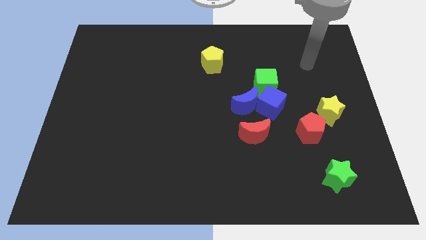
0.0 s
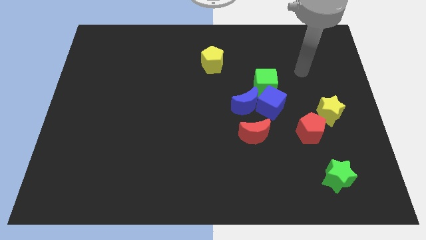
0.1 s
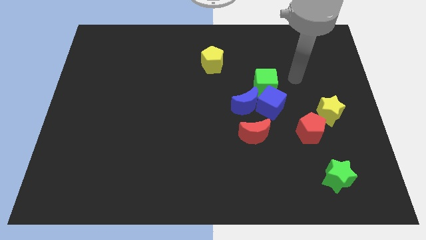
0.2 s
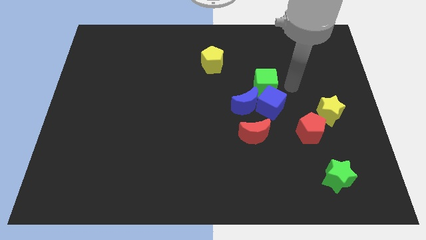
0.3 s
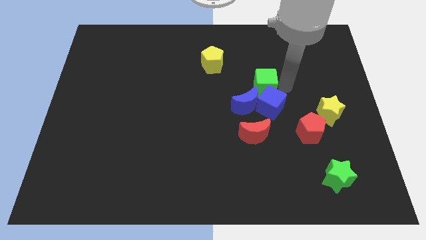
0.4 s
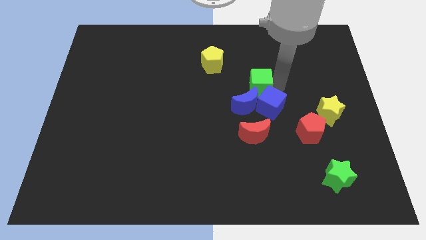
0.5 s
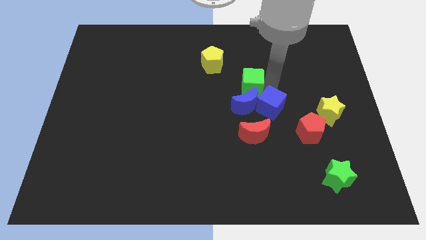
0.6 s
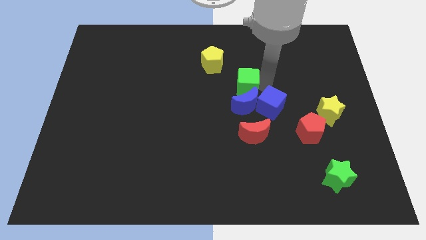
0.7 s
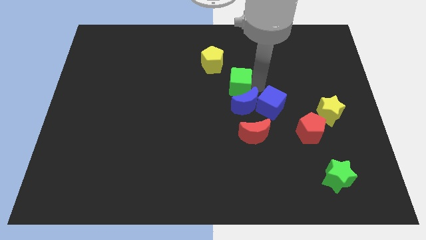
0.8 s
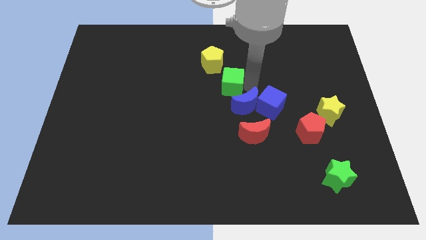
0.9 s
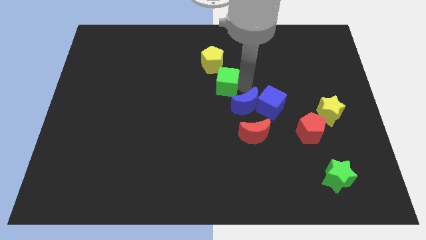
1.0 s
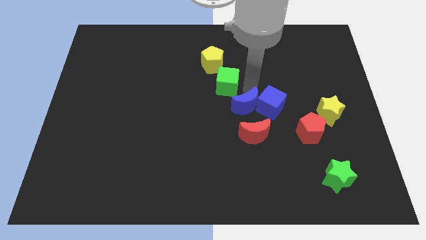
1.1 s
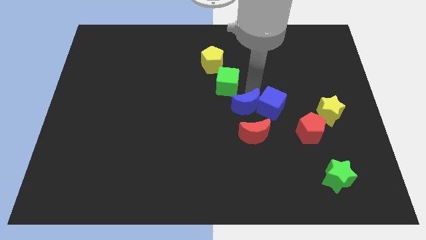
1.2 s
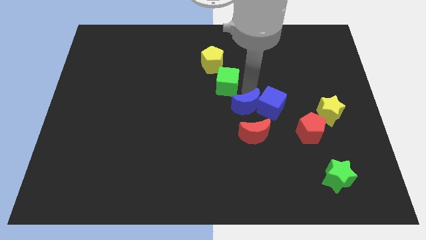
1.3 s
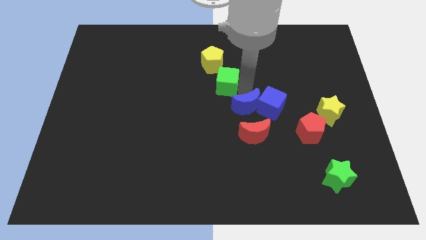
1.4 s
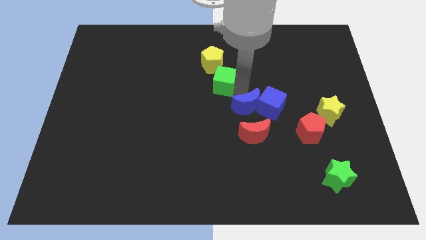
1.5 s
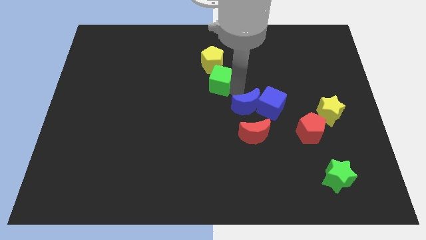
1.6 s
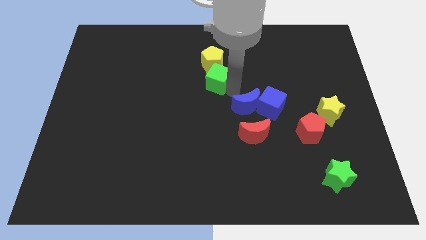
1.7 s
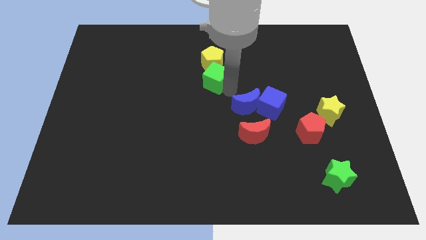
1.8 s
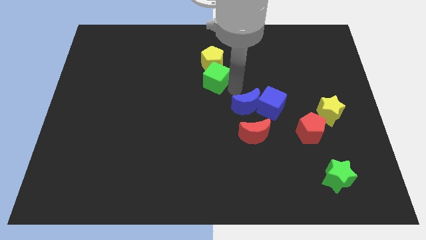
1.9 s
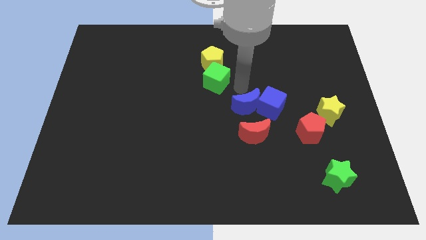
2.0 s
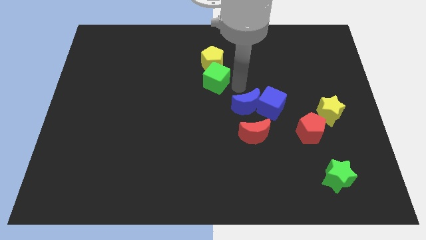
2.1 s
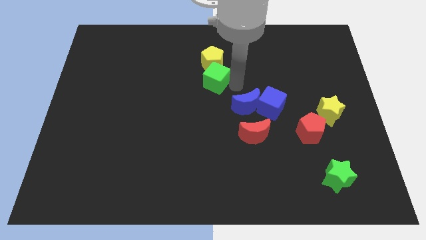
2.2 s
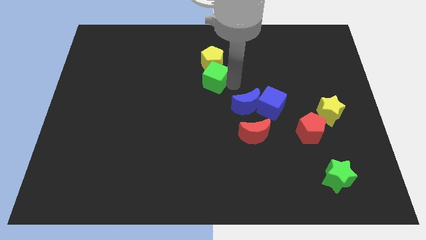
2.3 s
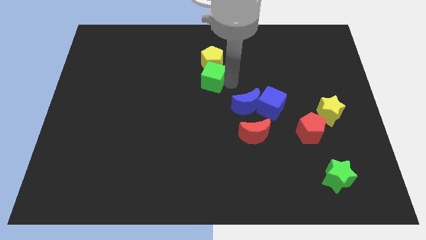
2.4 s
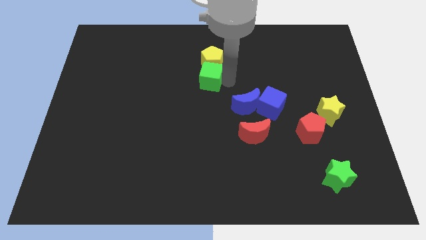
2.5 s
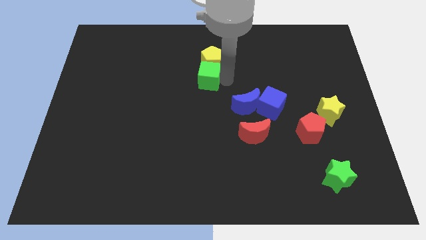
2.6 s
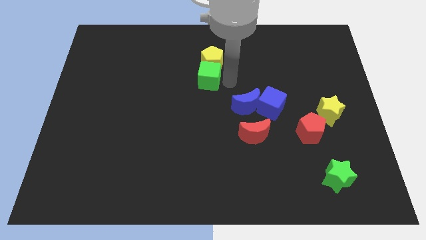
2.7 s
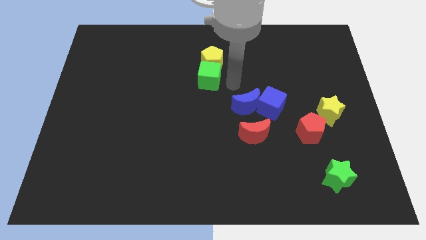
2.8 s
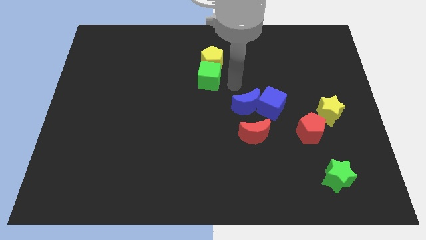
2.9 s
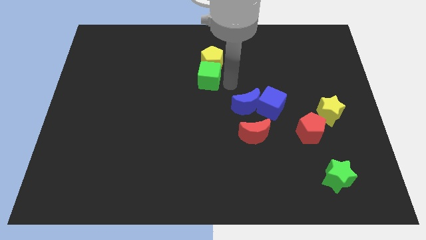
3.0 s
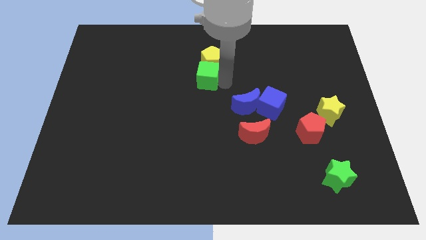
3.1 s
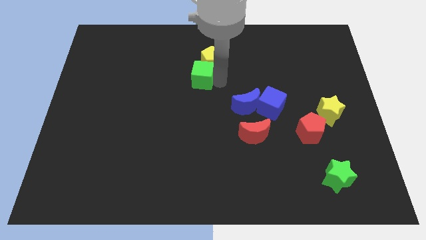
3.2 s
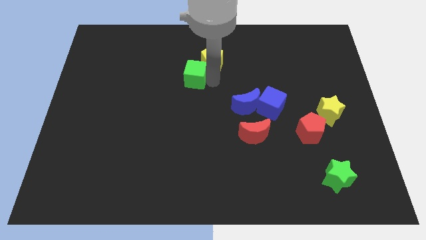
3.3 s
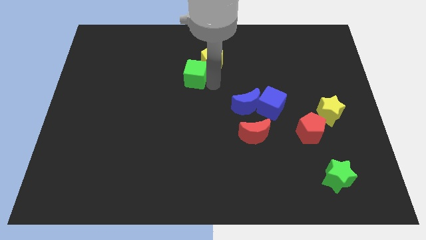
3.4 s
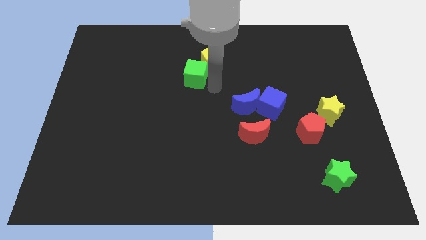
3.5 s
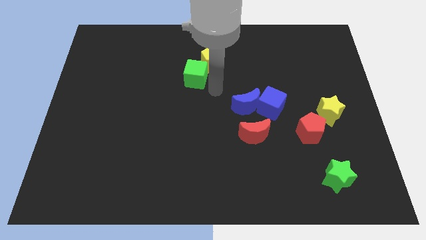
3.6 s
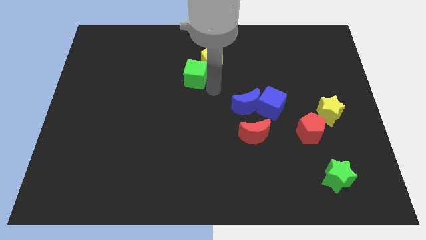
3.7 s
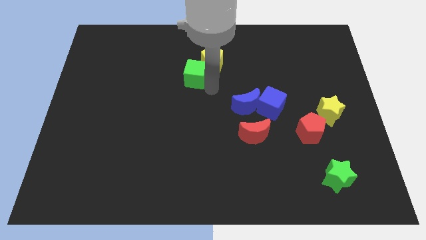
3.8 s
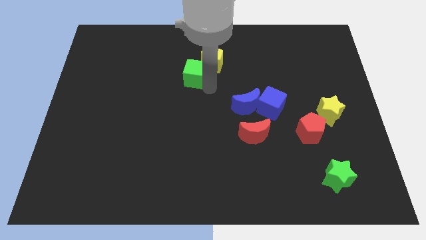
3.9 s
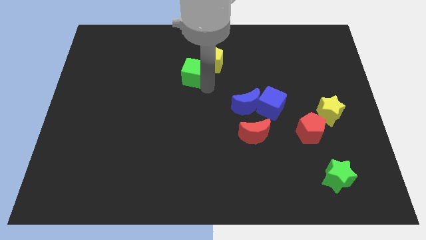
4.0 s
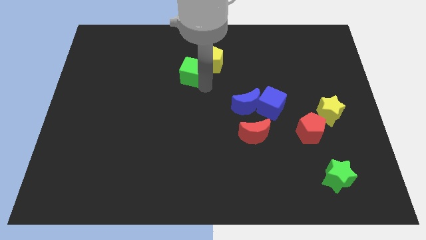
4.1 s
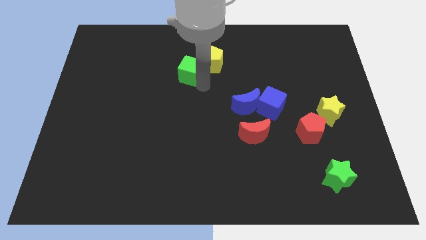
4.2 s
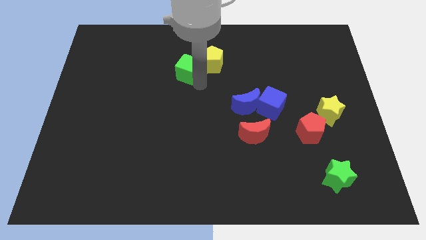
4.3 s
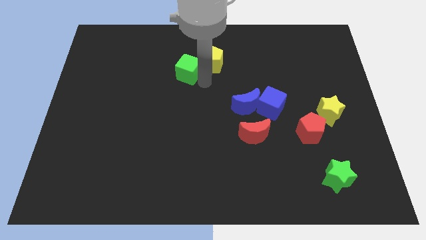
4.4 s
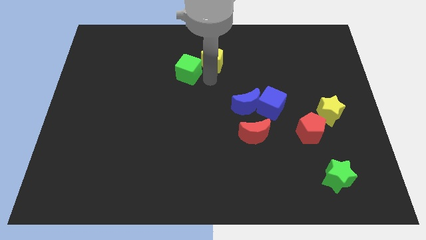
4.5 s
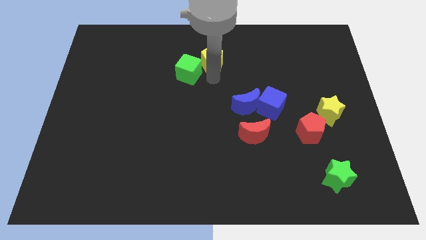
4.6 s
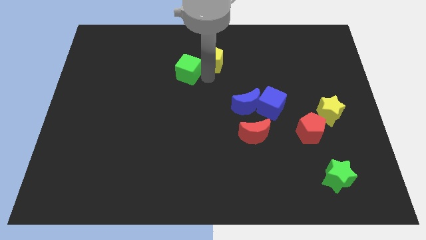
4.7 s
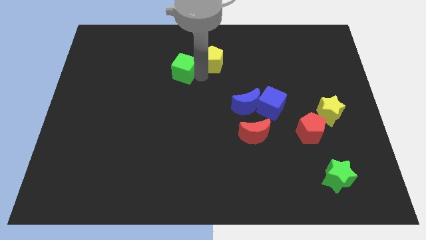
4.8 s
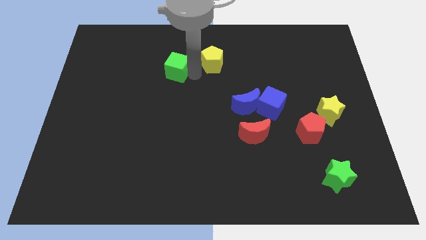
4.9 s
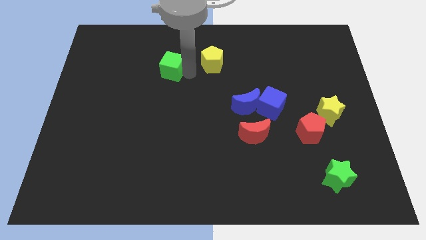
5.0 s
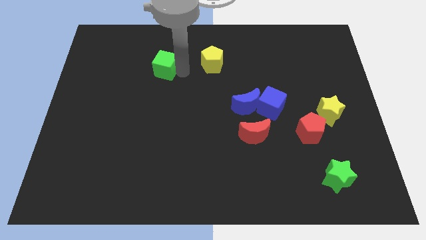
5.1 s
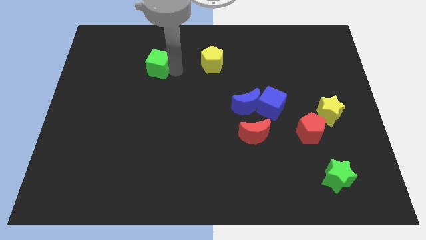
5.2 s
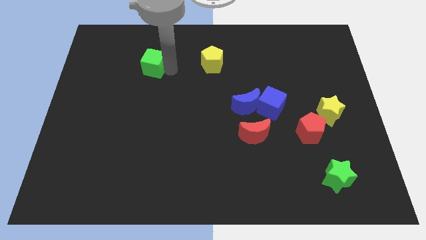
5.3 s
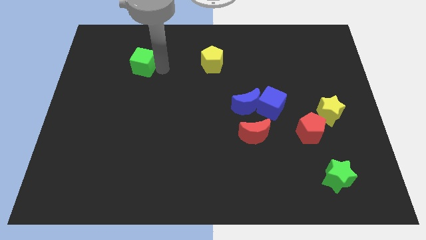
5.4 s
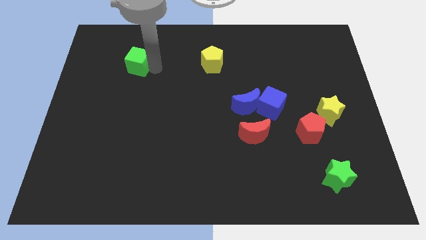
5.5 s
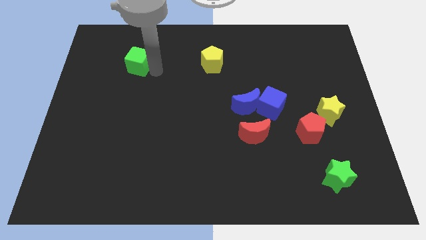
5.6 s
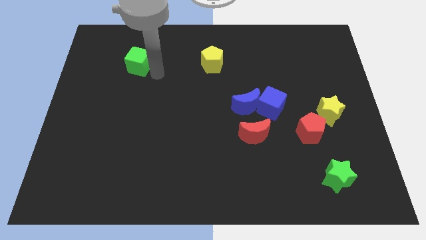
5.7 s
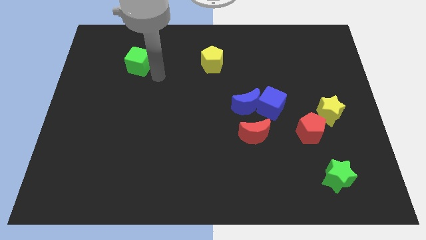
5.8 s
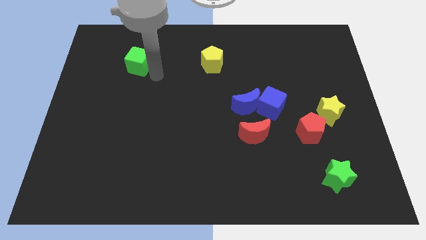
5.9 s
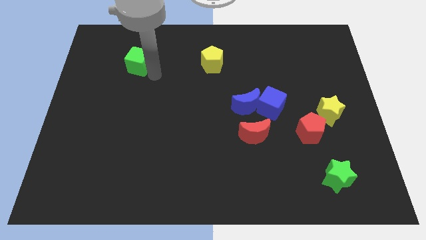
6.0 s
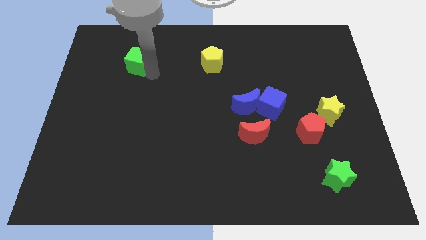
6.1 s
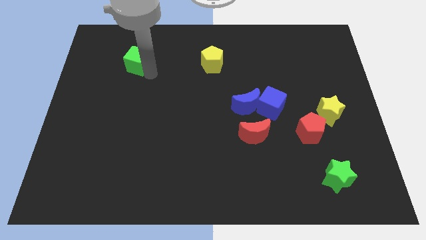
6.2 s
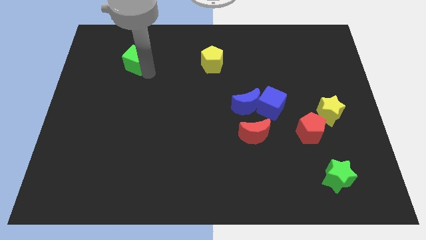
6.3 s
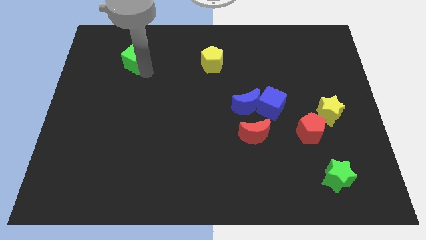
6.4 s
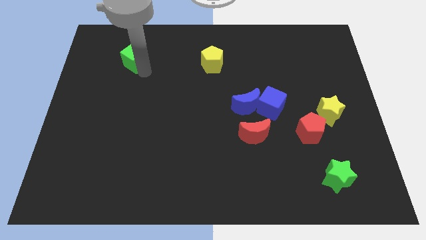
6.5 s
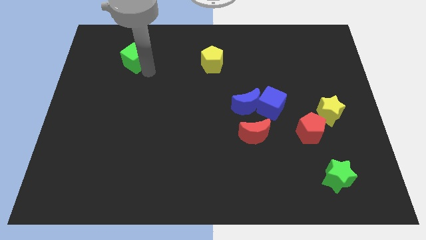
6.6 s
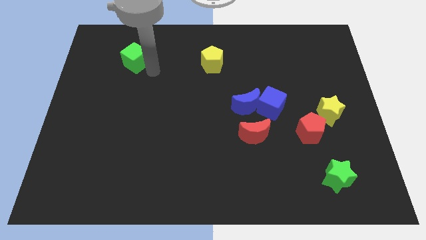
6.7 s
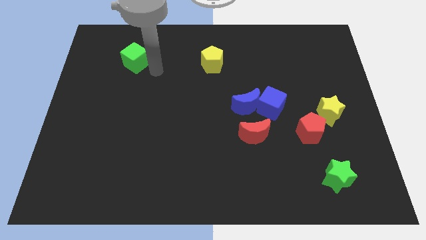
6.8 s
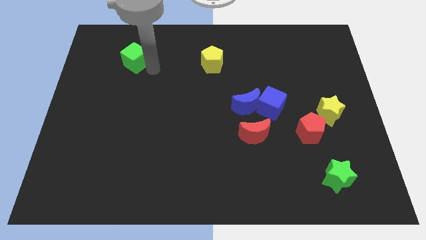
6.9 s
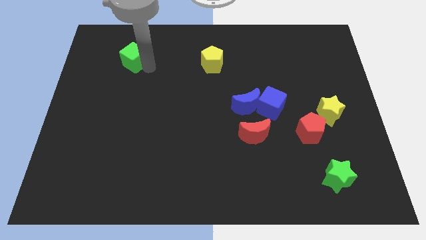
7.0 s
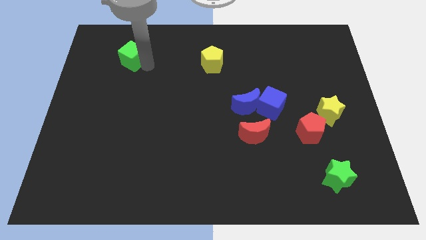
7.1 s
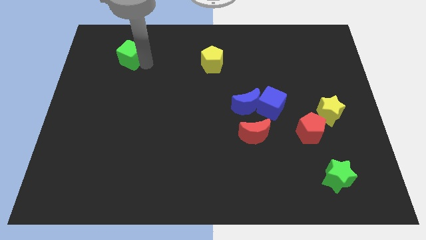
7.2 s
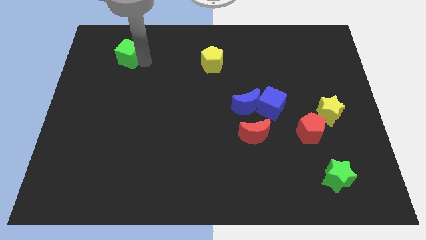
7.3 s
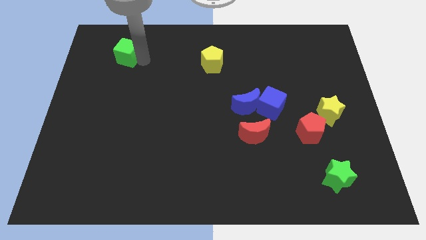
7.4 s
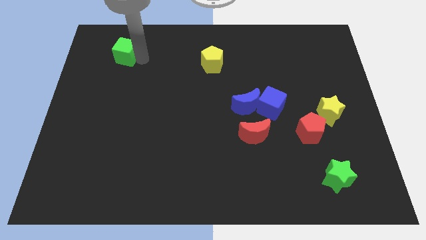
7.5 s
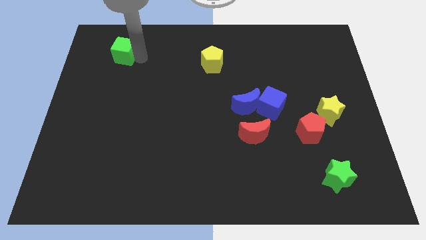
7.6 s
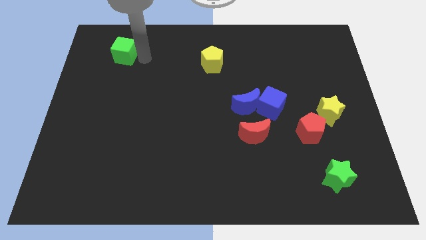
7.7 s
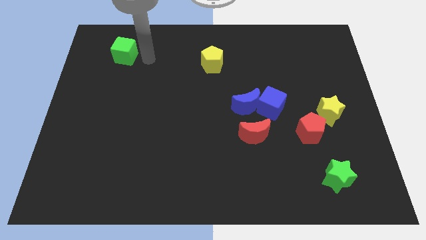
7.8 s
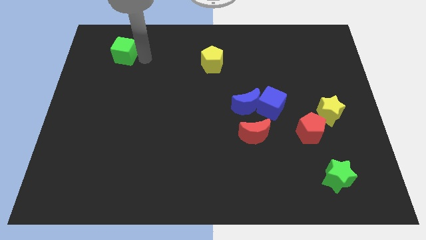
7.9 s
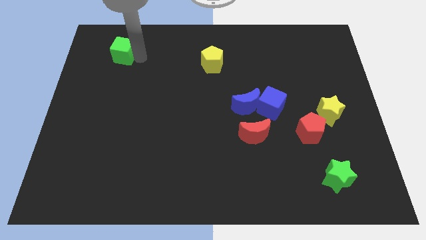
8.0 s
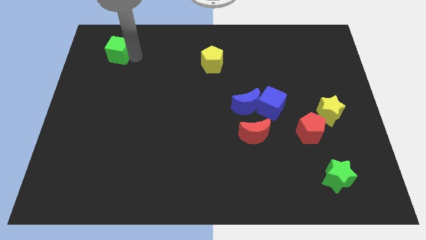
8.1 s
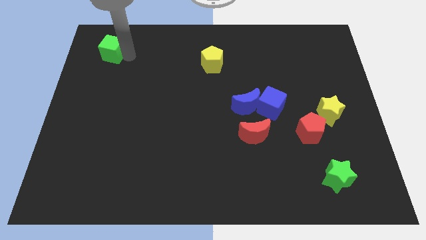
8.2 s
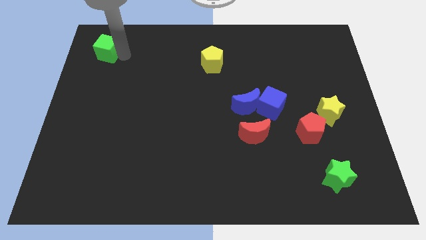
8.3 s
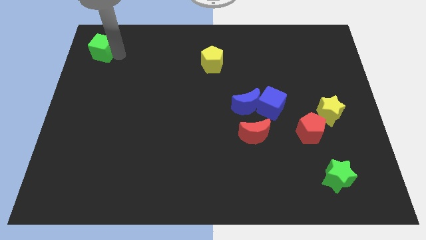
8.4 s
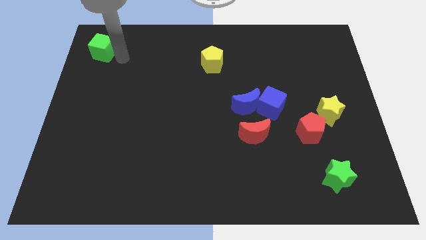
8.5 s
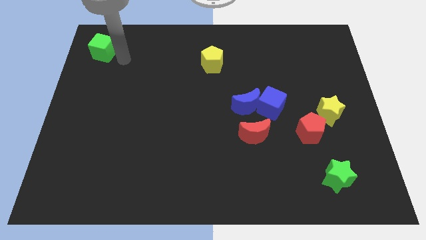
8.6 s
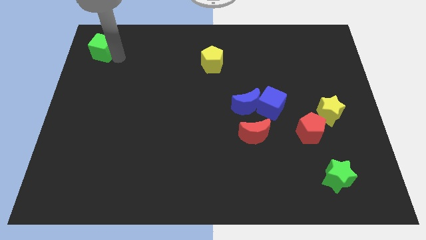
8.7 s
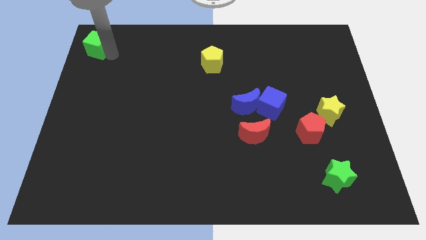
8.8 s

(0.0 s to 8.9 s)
push the green cube to the top left corner
